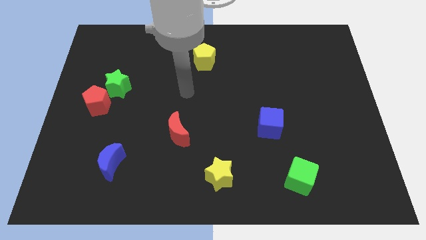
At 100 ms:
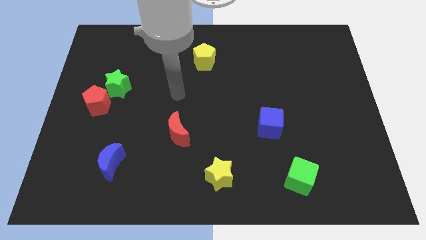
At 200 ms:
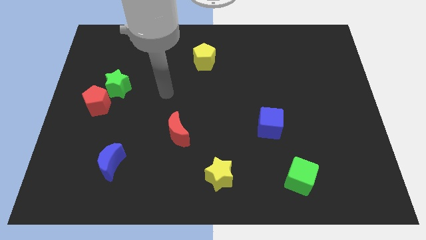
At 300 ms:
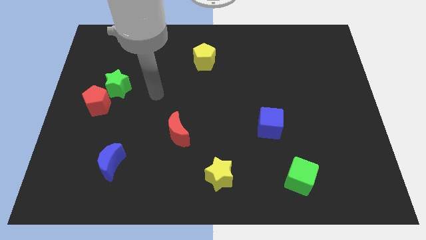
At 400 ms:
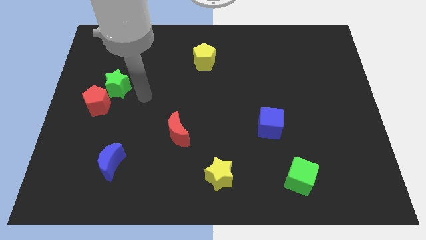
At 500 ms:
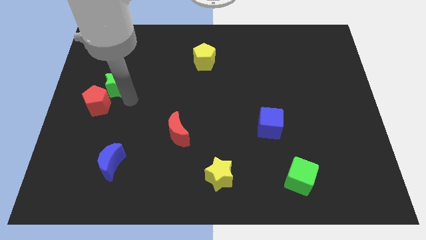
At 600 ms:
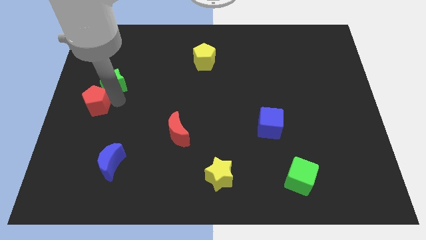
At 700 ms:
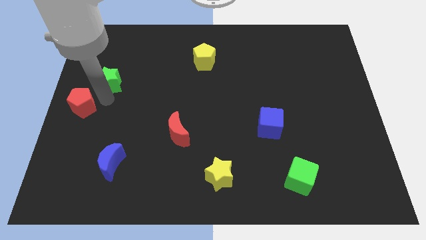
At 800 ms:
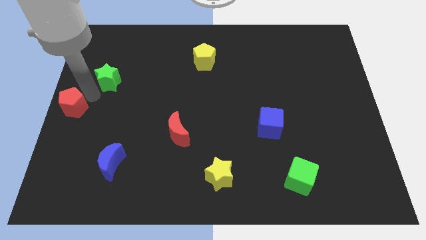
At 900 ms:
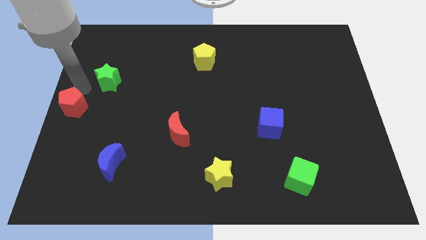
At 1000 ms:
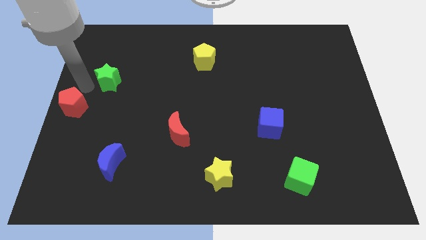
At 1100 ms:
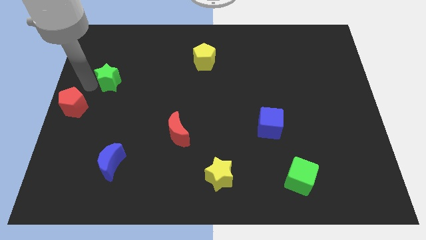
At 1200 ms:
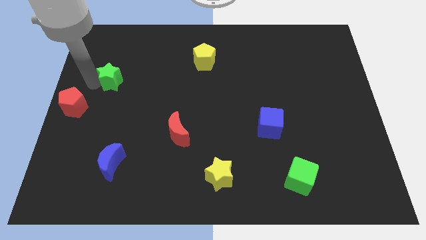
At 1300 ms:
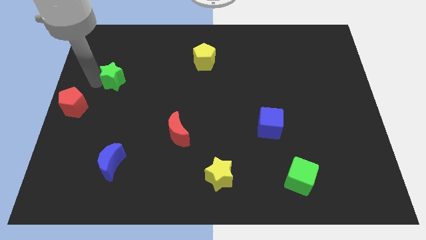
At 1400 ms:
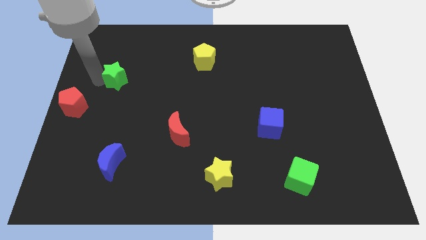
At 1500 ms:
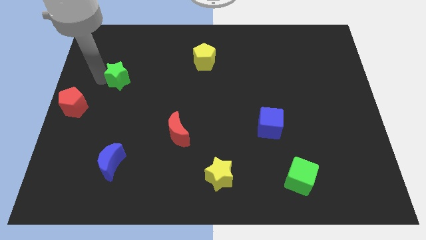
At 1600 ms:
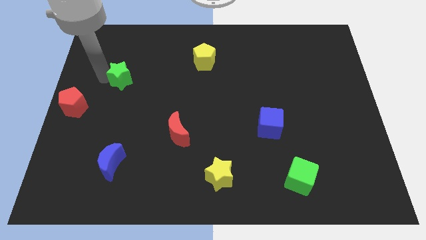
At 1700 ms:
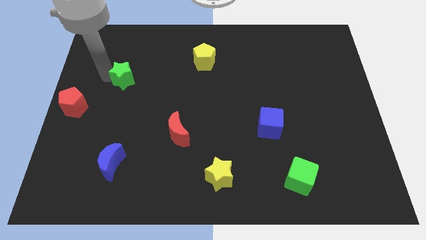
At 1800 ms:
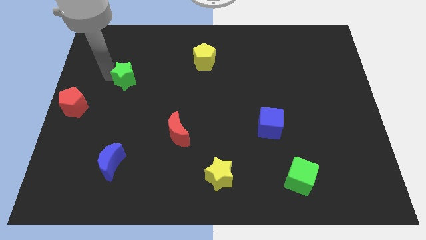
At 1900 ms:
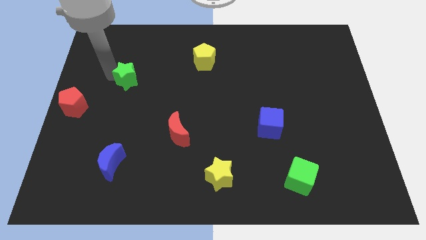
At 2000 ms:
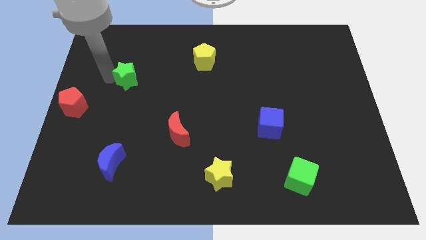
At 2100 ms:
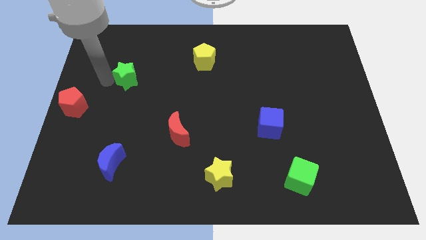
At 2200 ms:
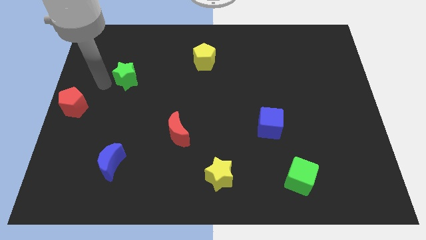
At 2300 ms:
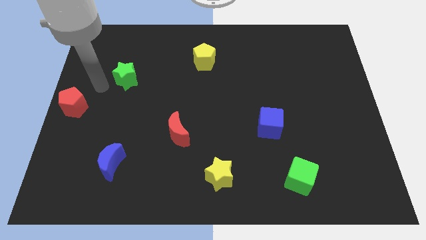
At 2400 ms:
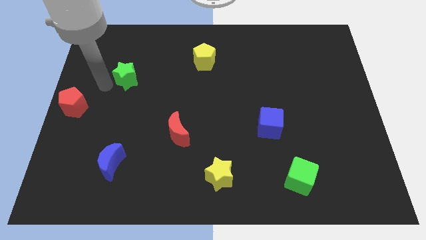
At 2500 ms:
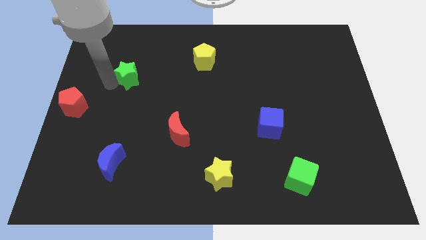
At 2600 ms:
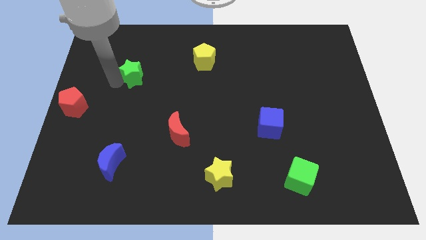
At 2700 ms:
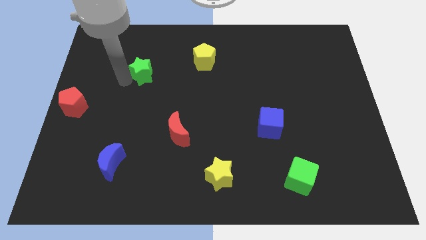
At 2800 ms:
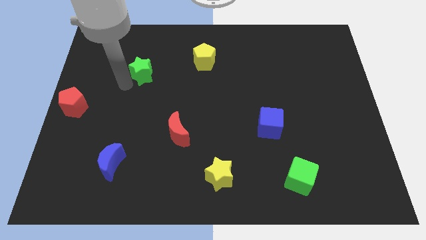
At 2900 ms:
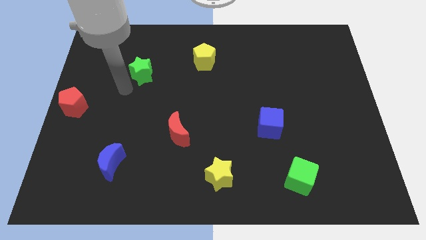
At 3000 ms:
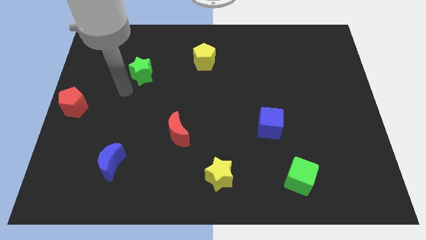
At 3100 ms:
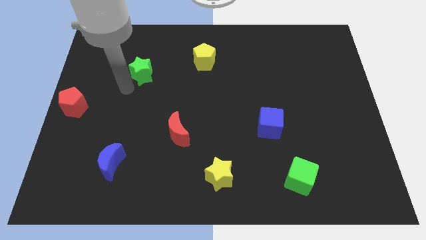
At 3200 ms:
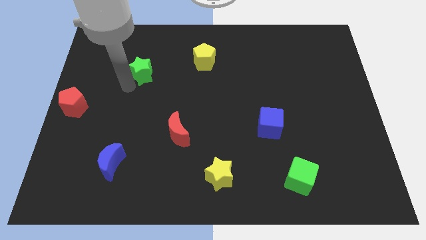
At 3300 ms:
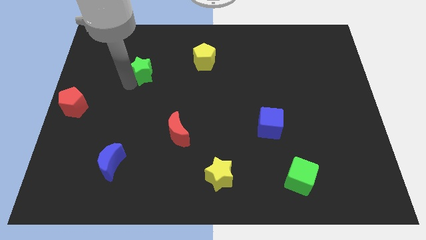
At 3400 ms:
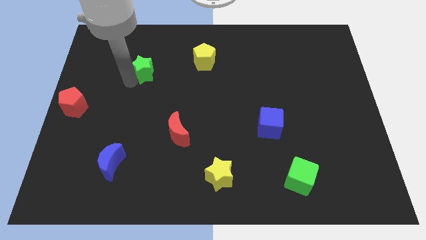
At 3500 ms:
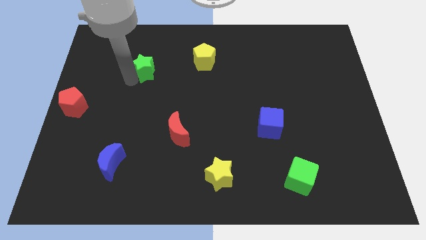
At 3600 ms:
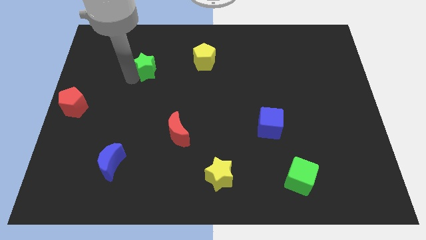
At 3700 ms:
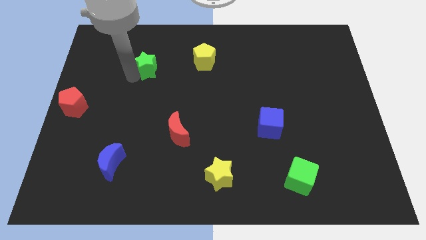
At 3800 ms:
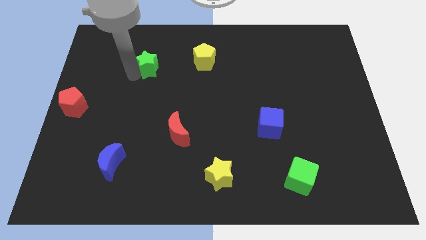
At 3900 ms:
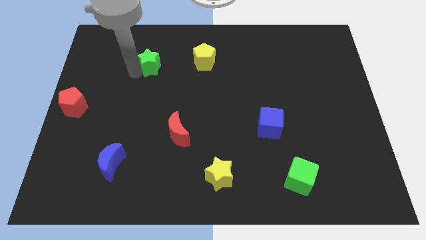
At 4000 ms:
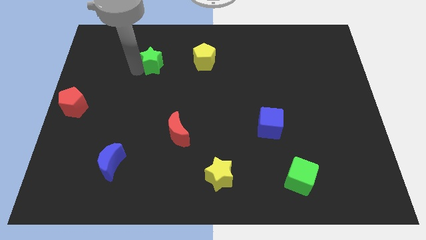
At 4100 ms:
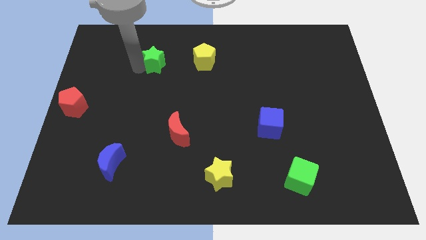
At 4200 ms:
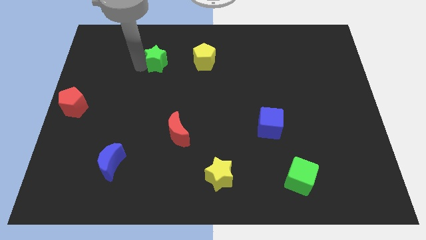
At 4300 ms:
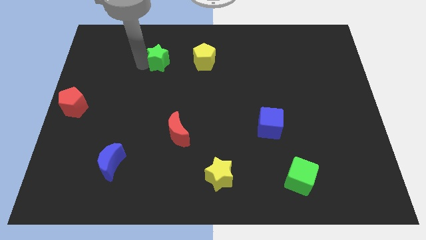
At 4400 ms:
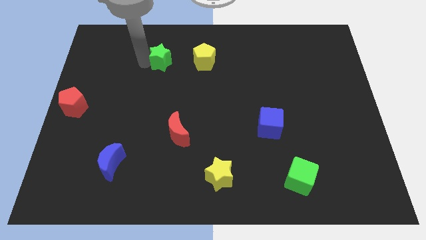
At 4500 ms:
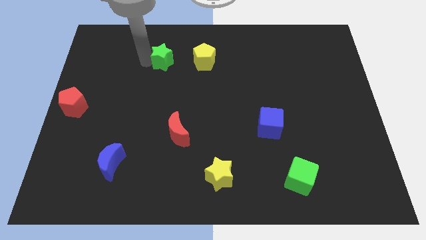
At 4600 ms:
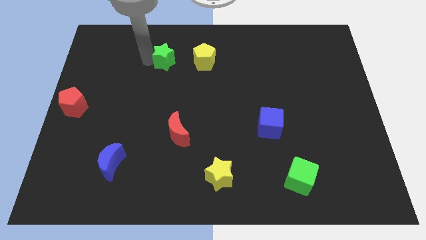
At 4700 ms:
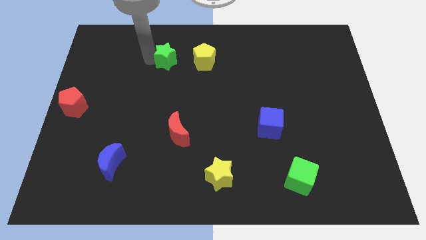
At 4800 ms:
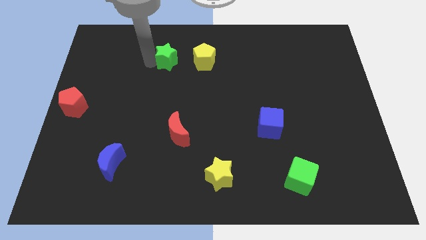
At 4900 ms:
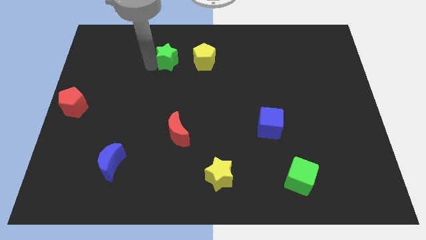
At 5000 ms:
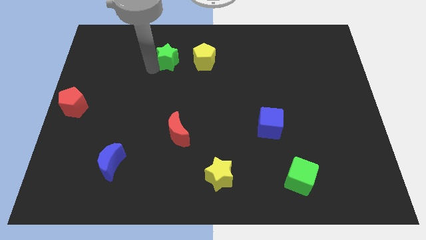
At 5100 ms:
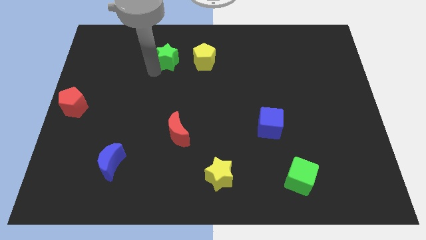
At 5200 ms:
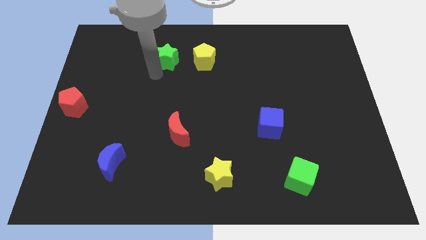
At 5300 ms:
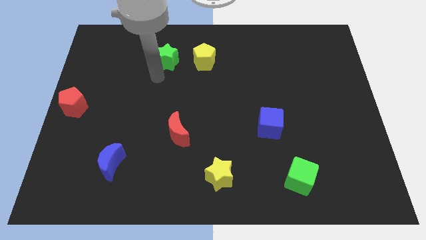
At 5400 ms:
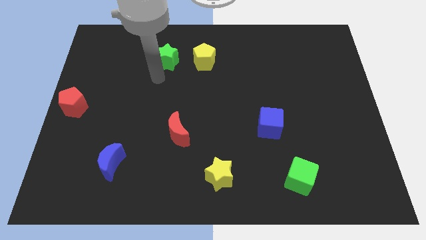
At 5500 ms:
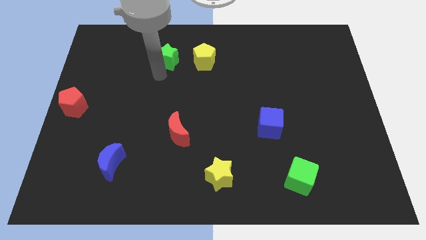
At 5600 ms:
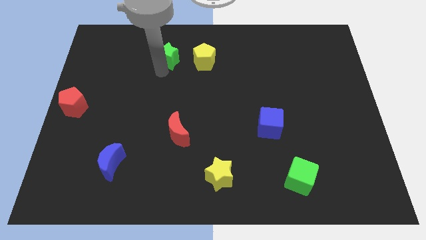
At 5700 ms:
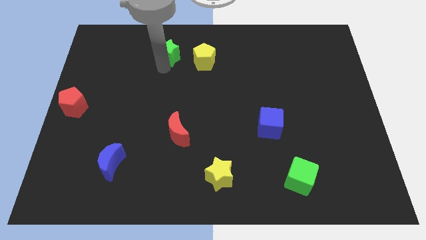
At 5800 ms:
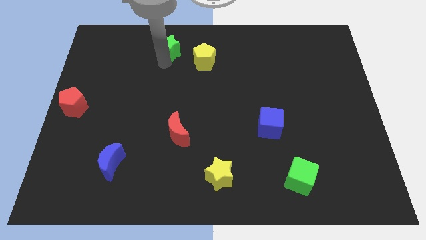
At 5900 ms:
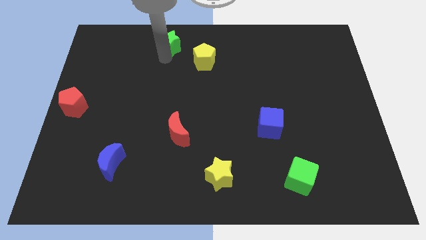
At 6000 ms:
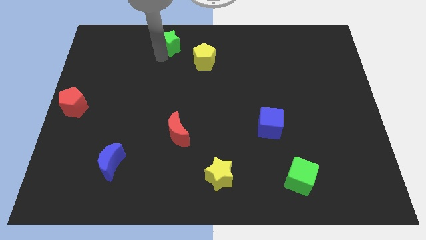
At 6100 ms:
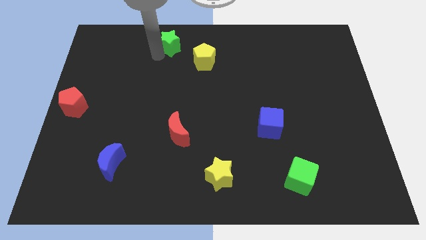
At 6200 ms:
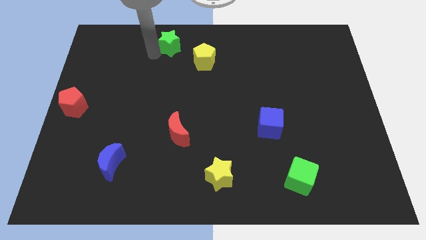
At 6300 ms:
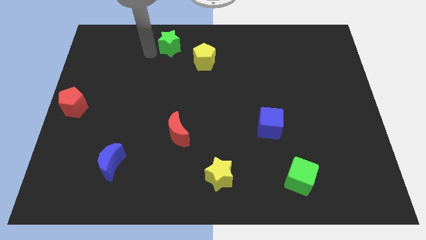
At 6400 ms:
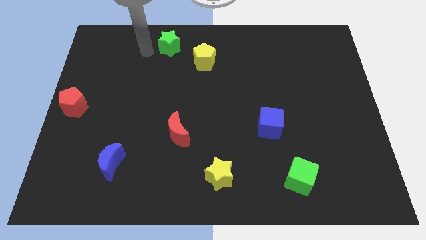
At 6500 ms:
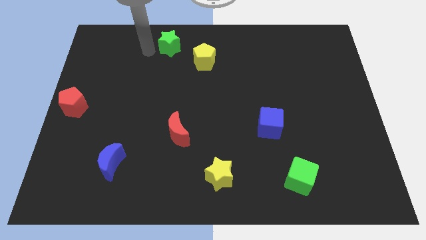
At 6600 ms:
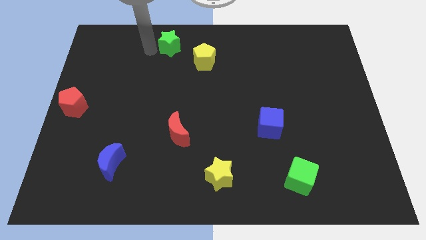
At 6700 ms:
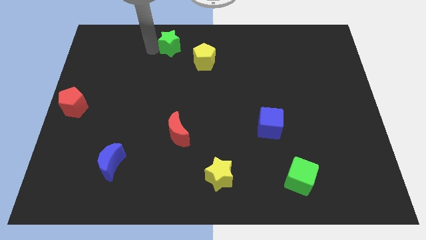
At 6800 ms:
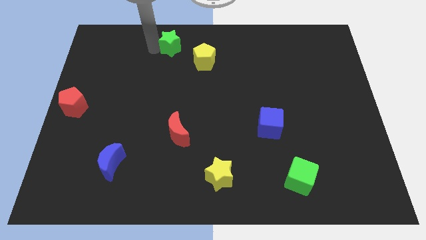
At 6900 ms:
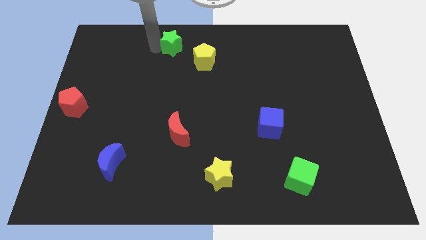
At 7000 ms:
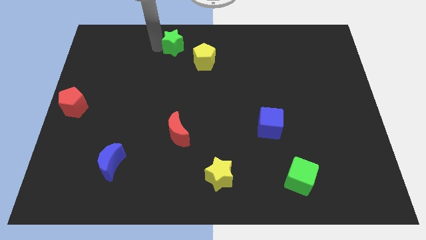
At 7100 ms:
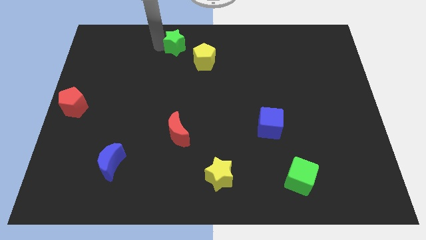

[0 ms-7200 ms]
slide the green star to the top
